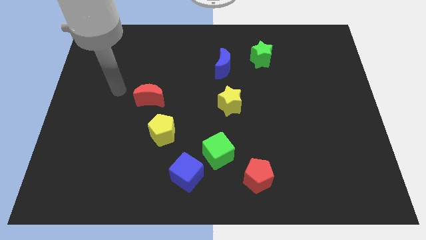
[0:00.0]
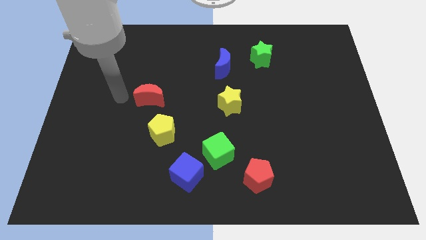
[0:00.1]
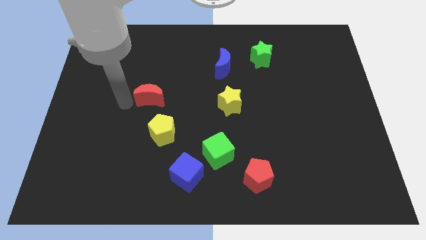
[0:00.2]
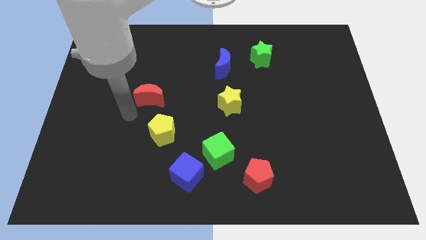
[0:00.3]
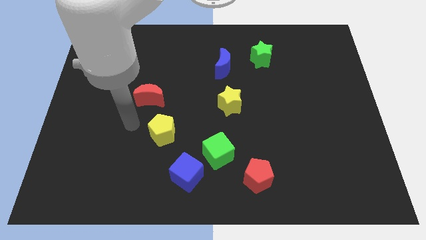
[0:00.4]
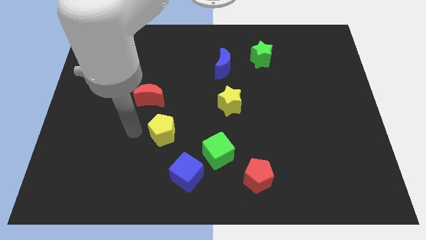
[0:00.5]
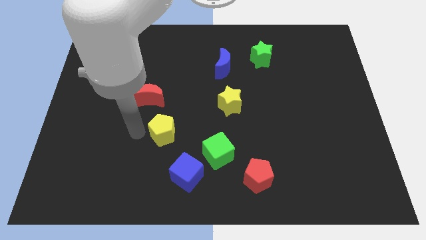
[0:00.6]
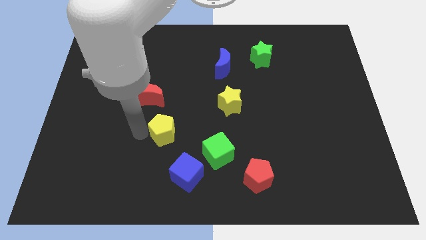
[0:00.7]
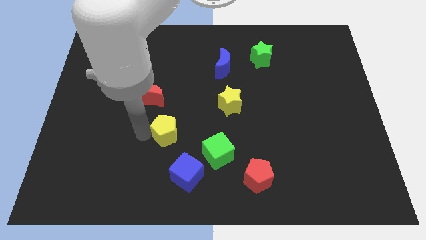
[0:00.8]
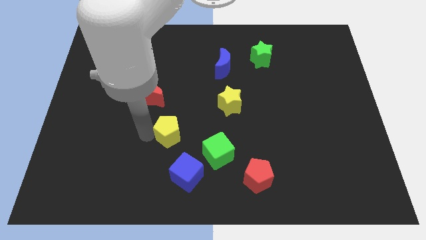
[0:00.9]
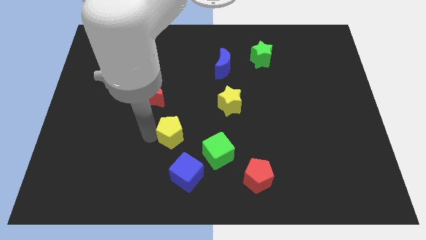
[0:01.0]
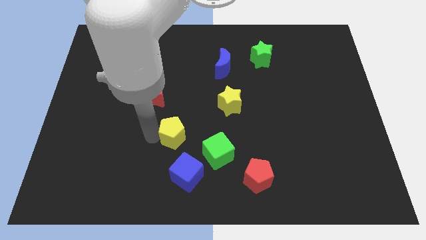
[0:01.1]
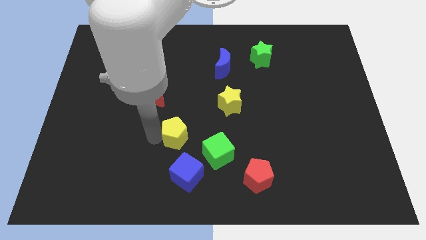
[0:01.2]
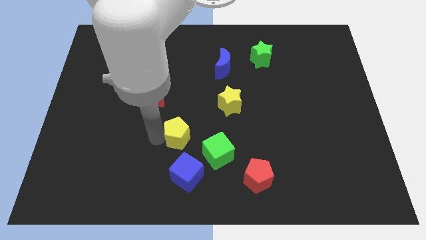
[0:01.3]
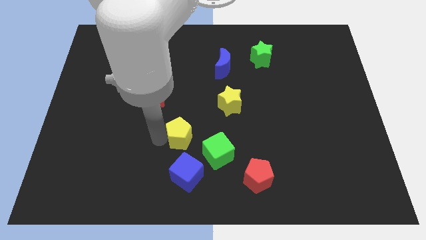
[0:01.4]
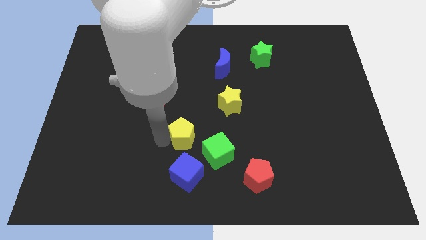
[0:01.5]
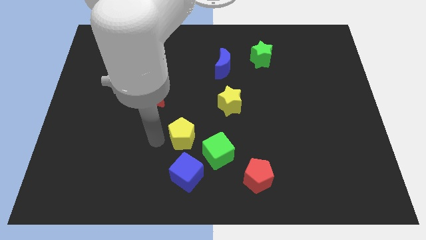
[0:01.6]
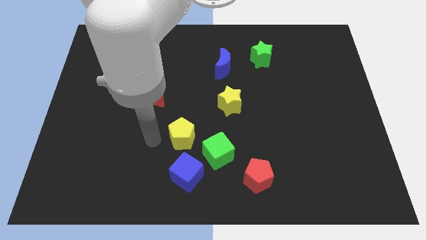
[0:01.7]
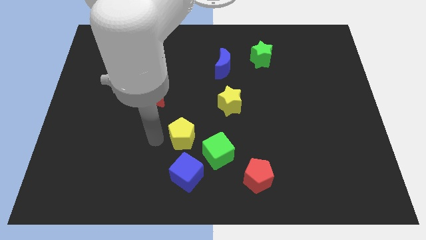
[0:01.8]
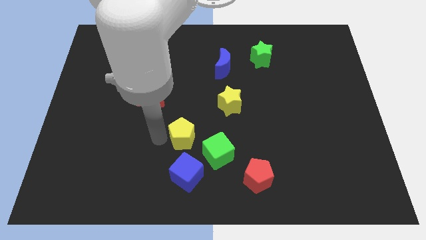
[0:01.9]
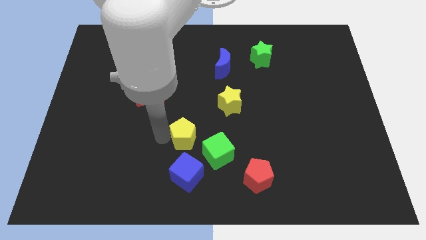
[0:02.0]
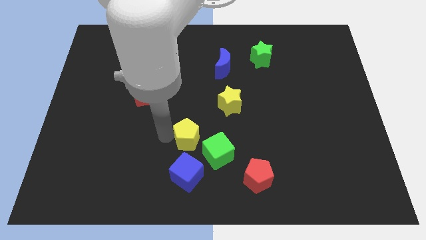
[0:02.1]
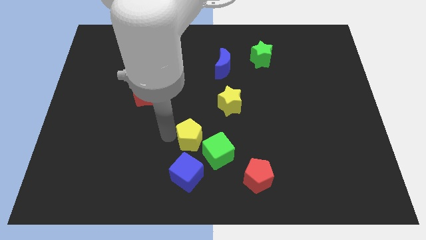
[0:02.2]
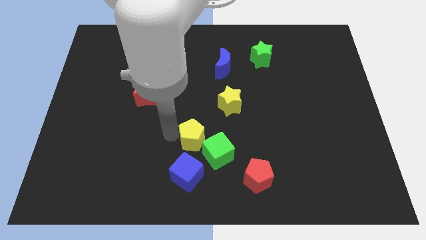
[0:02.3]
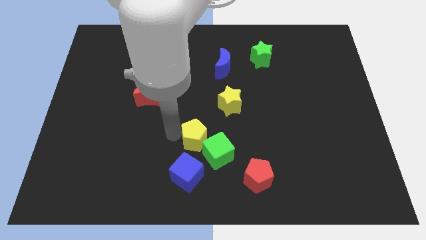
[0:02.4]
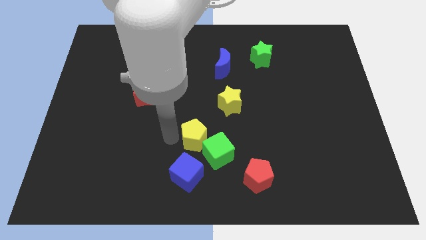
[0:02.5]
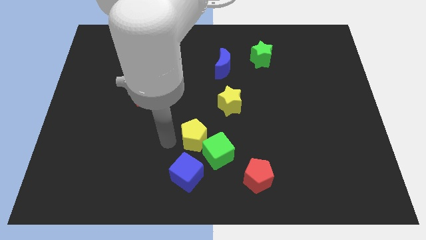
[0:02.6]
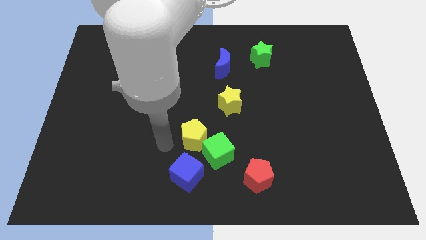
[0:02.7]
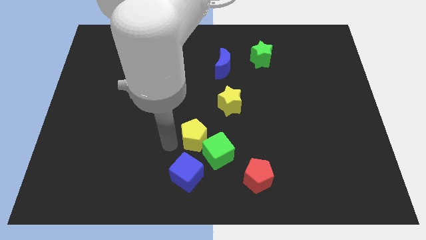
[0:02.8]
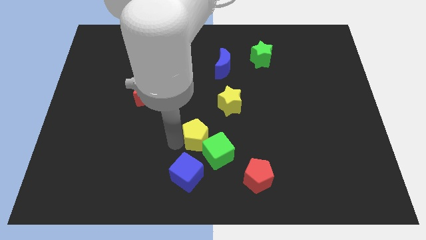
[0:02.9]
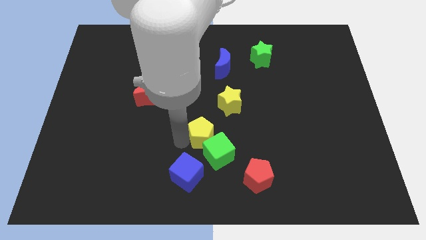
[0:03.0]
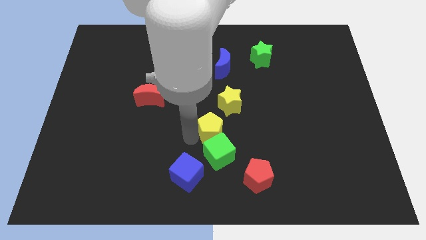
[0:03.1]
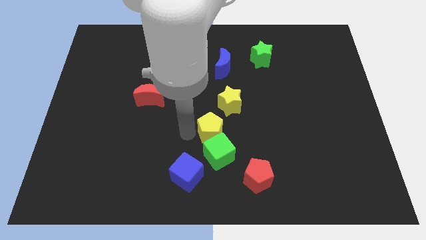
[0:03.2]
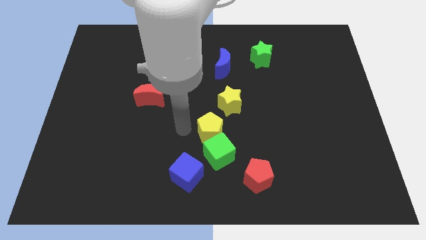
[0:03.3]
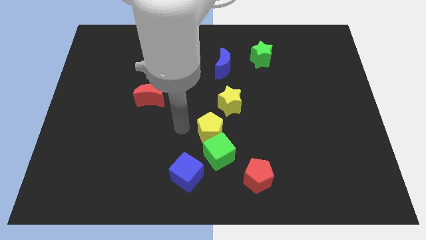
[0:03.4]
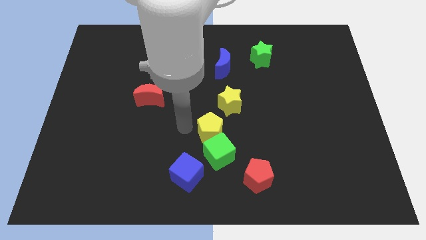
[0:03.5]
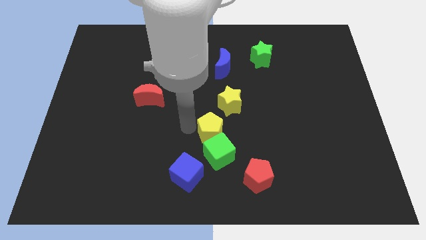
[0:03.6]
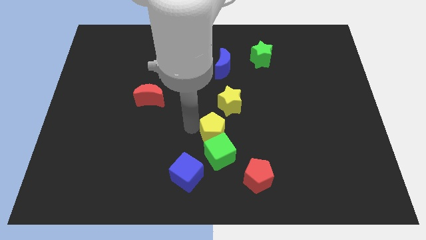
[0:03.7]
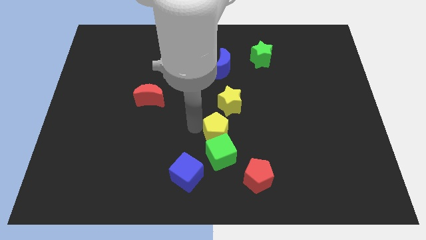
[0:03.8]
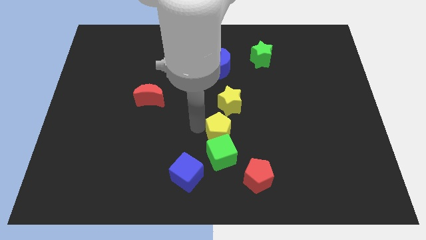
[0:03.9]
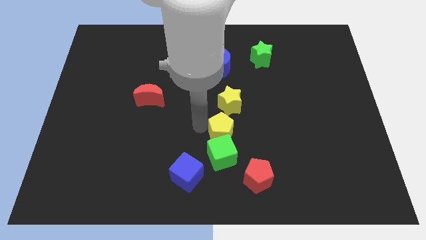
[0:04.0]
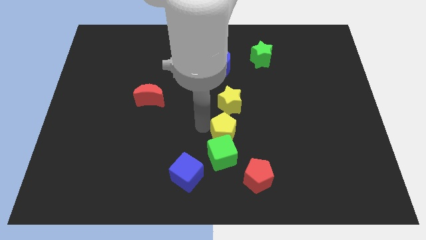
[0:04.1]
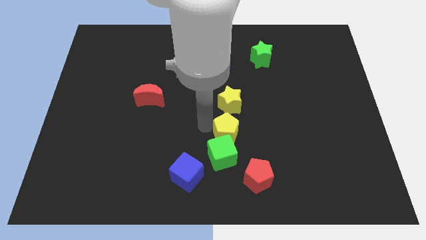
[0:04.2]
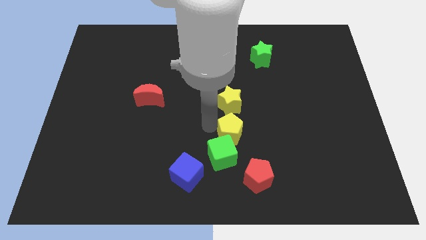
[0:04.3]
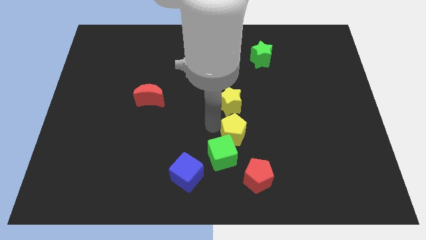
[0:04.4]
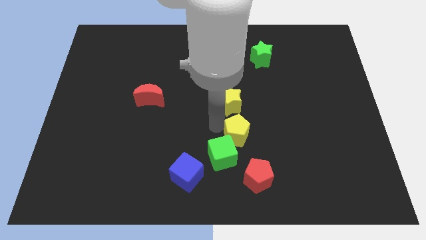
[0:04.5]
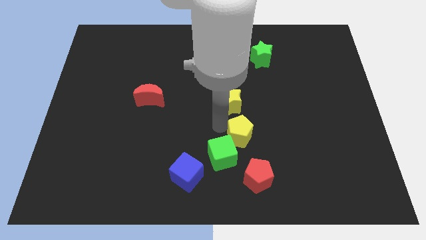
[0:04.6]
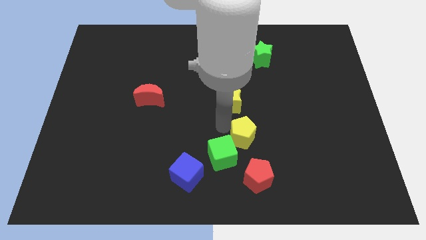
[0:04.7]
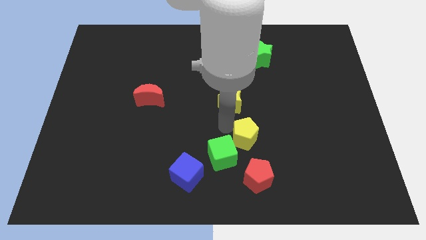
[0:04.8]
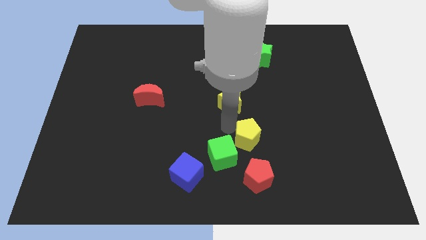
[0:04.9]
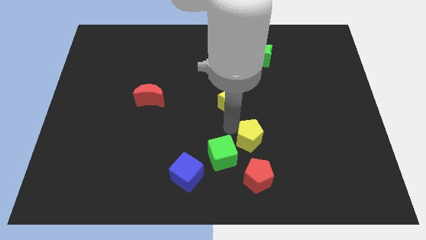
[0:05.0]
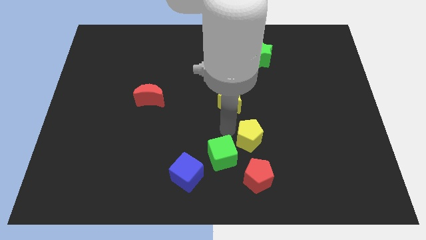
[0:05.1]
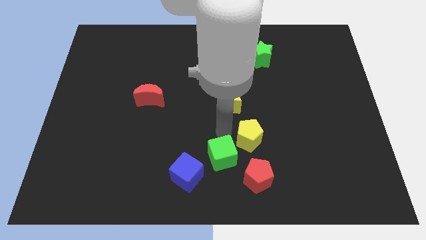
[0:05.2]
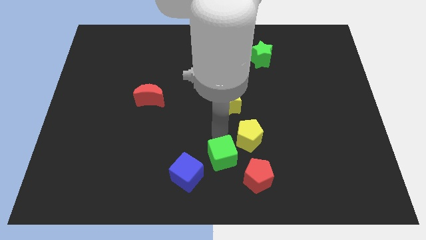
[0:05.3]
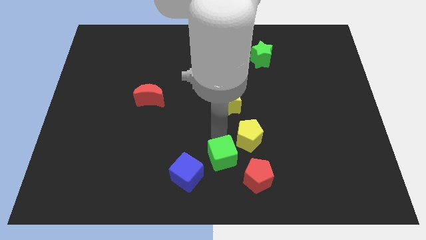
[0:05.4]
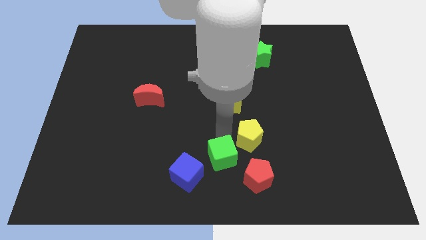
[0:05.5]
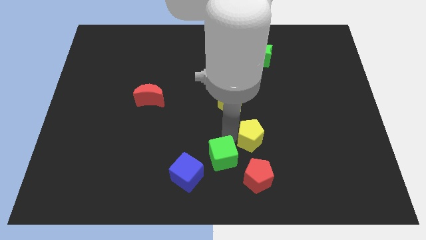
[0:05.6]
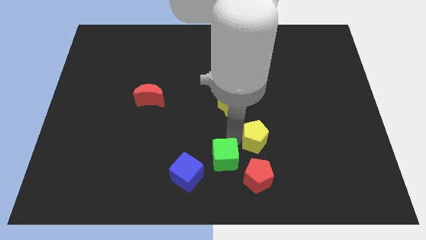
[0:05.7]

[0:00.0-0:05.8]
push the yellow pentagon to the right

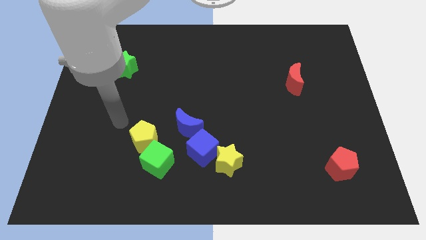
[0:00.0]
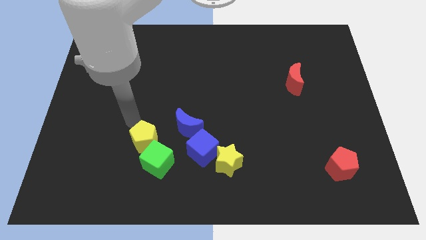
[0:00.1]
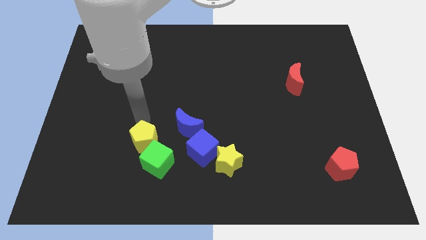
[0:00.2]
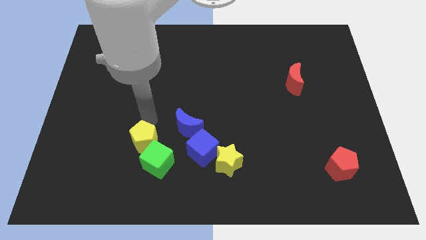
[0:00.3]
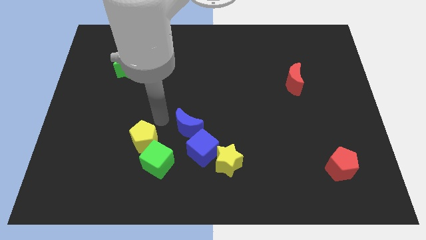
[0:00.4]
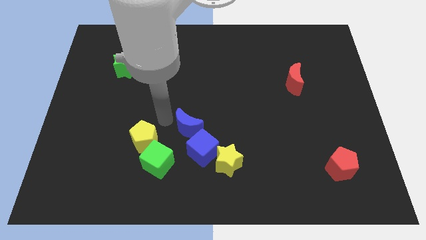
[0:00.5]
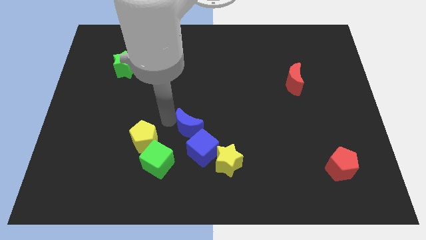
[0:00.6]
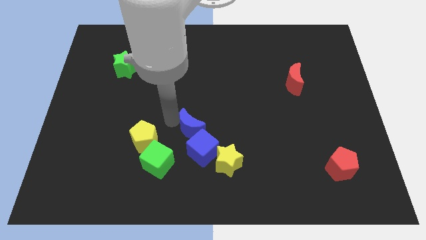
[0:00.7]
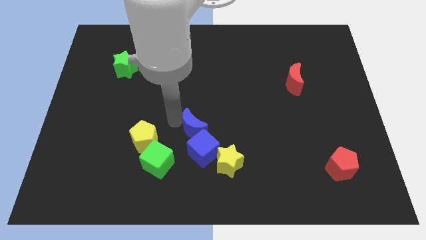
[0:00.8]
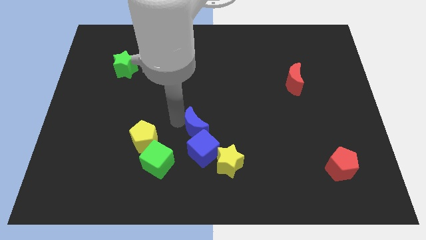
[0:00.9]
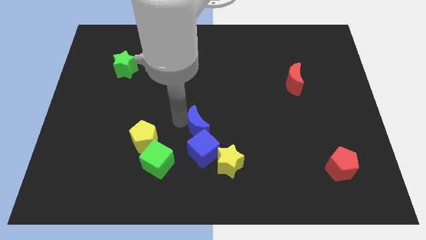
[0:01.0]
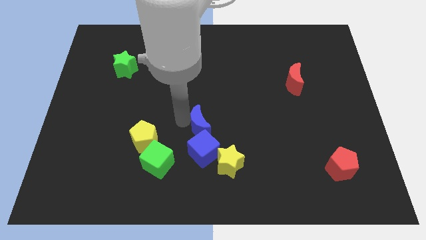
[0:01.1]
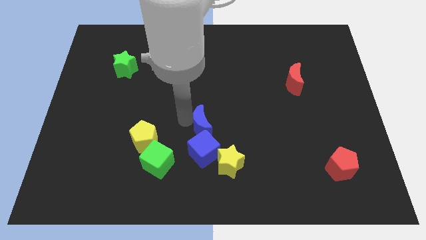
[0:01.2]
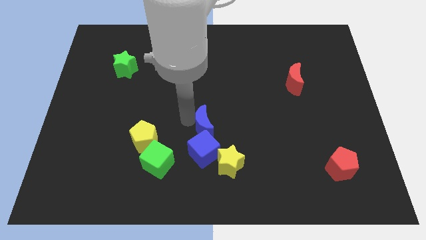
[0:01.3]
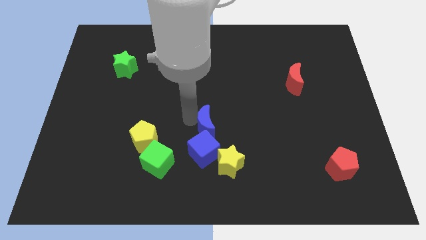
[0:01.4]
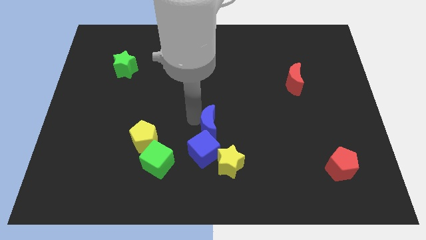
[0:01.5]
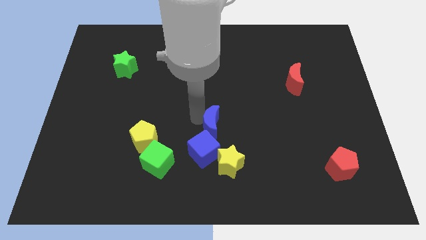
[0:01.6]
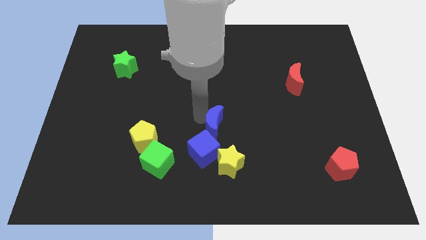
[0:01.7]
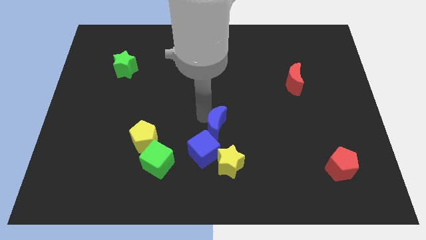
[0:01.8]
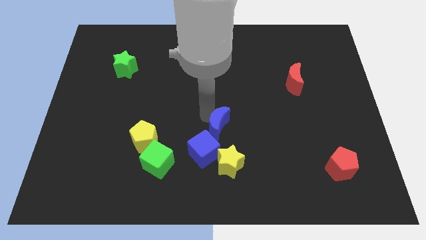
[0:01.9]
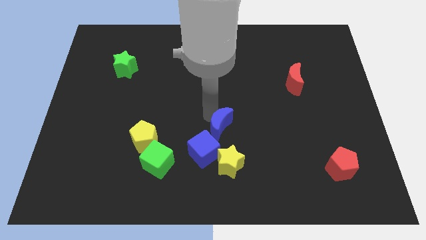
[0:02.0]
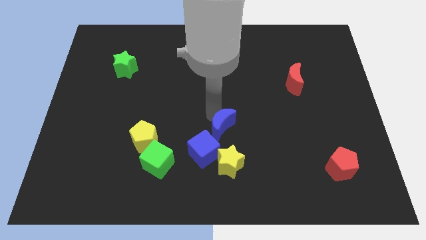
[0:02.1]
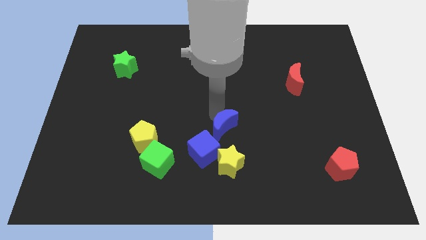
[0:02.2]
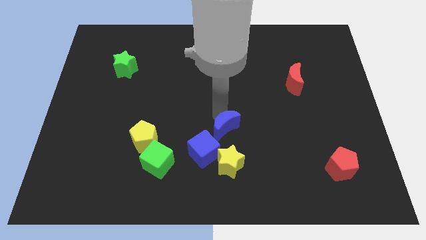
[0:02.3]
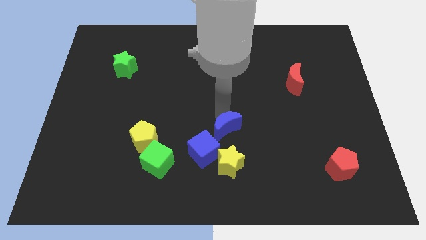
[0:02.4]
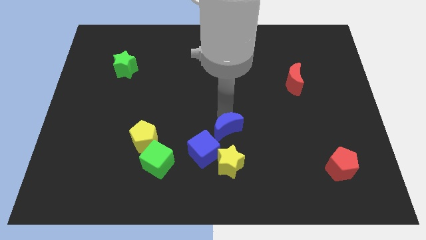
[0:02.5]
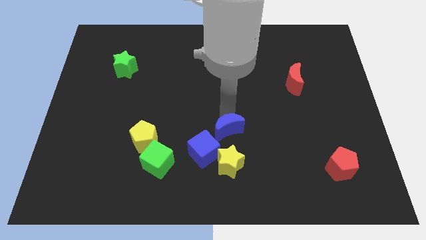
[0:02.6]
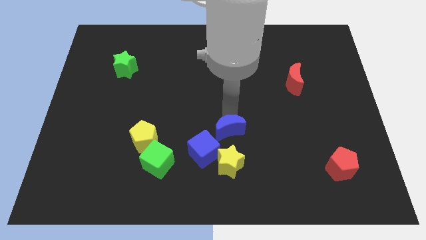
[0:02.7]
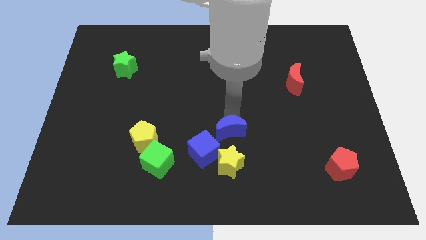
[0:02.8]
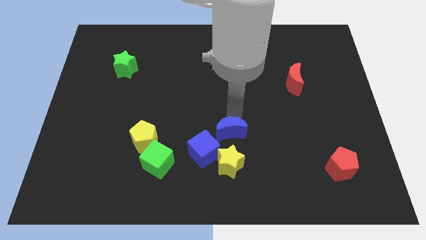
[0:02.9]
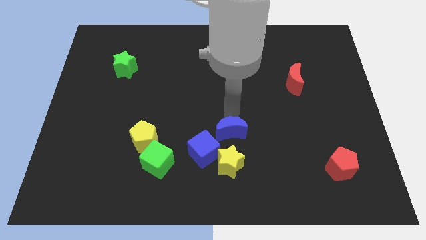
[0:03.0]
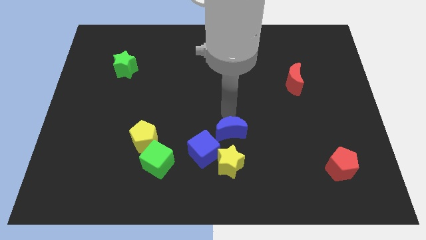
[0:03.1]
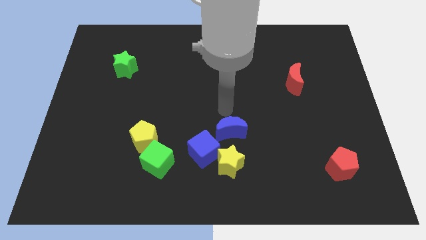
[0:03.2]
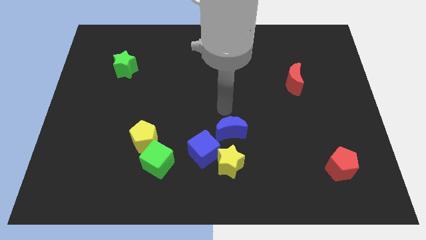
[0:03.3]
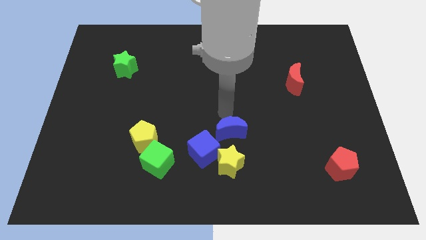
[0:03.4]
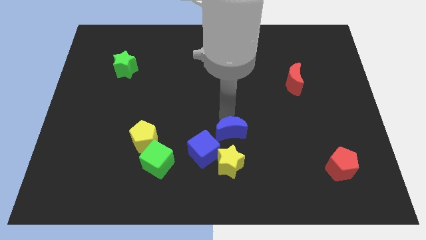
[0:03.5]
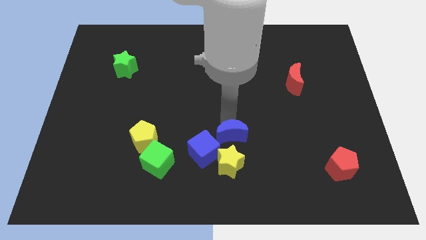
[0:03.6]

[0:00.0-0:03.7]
slide the blue moon a bit down and then to the right
